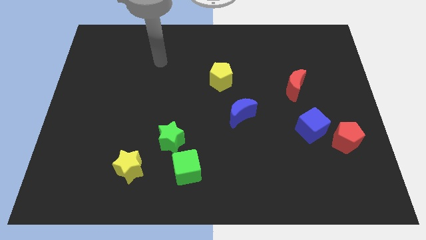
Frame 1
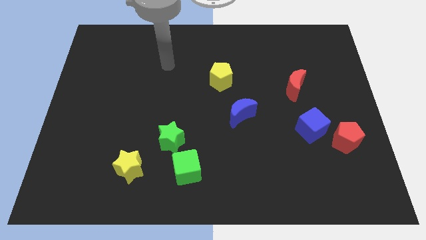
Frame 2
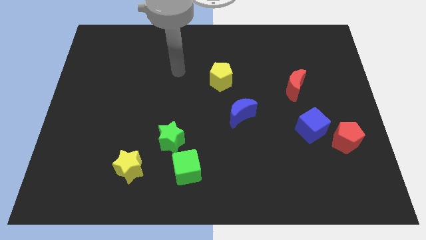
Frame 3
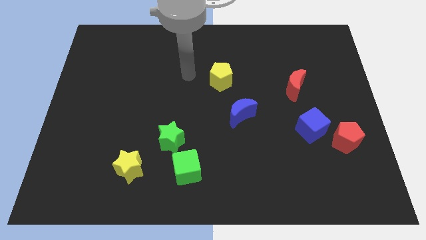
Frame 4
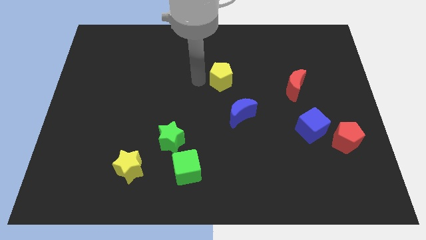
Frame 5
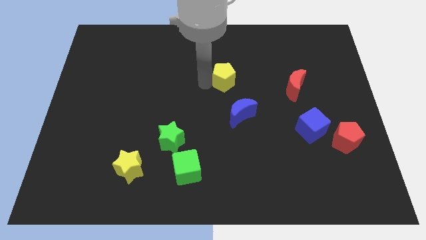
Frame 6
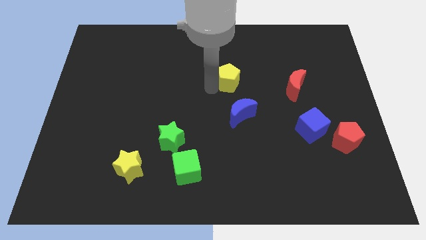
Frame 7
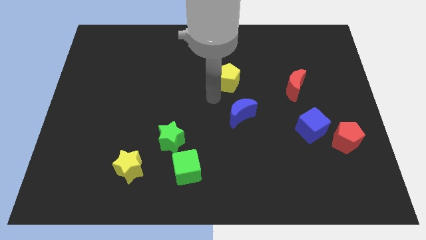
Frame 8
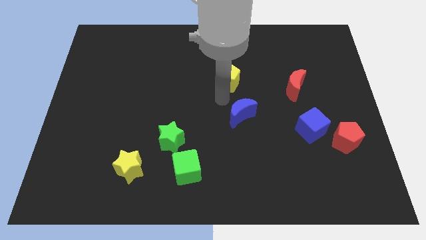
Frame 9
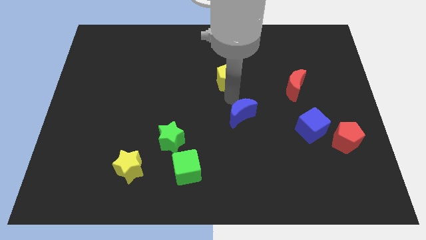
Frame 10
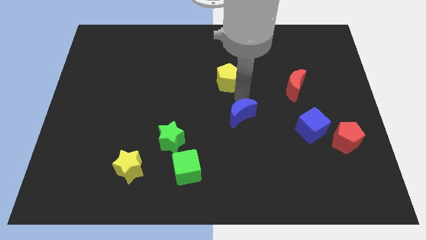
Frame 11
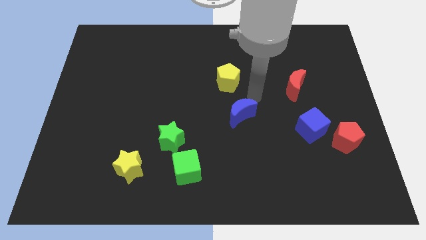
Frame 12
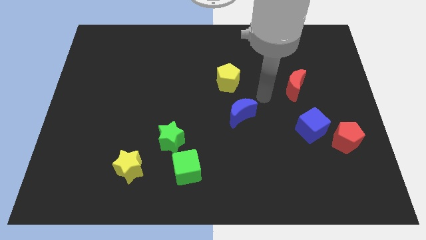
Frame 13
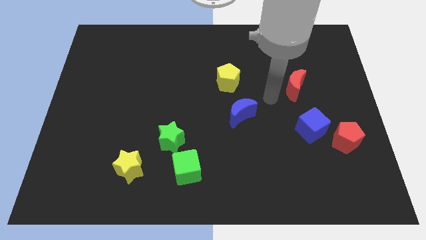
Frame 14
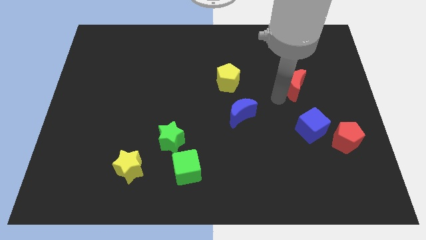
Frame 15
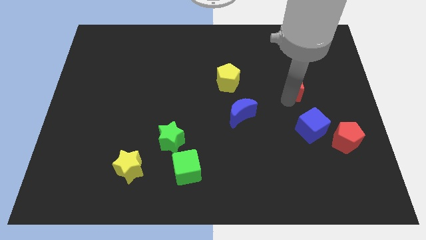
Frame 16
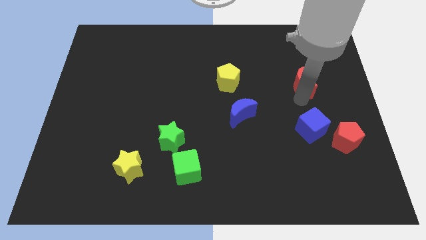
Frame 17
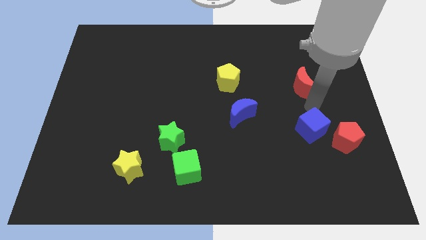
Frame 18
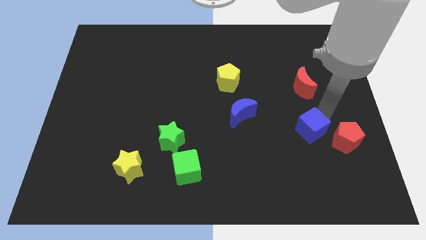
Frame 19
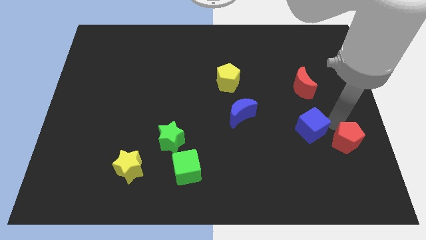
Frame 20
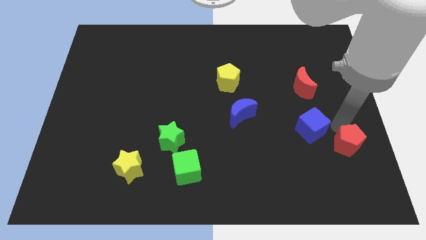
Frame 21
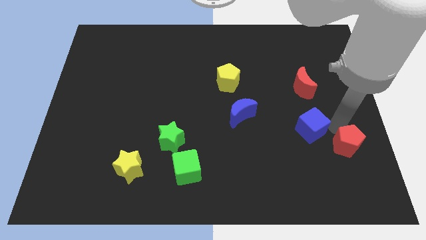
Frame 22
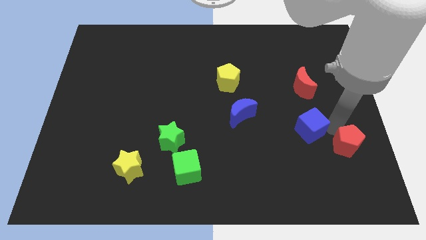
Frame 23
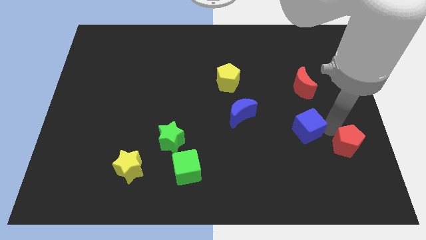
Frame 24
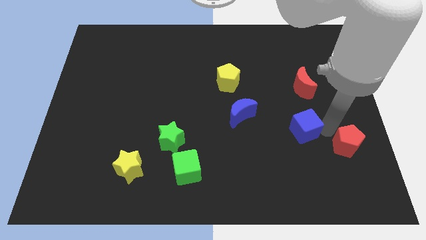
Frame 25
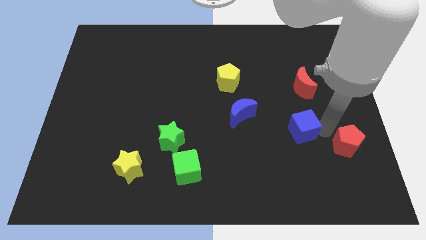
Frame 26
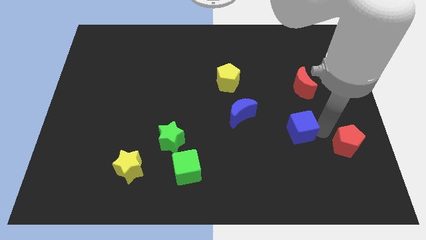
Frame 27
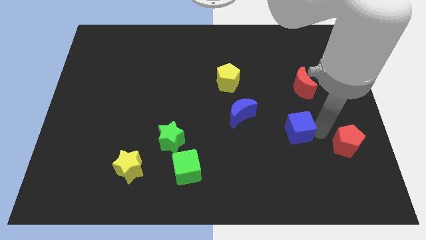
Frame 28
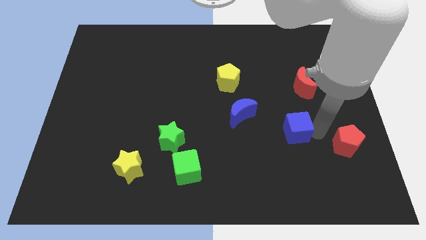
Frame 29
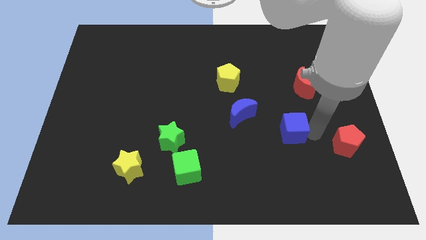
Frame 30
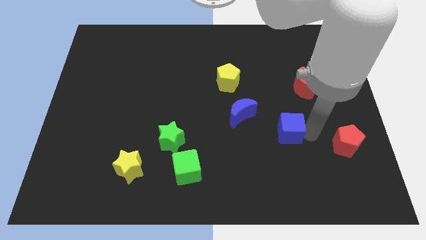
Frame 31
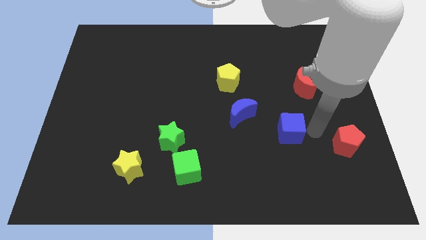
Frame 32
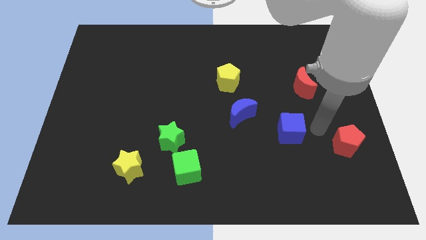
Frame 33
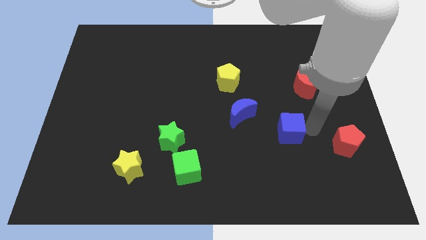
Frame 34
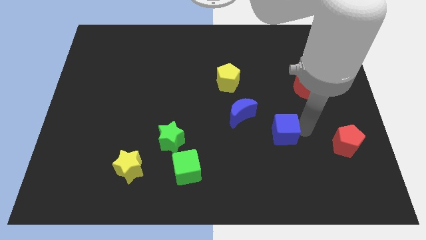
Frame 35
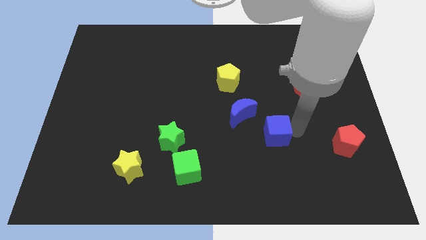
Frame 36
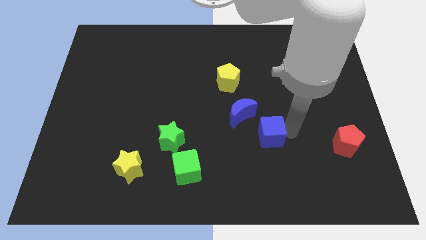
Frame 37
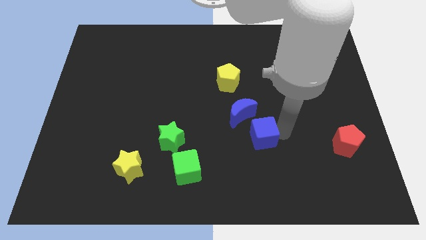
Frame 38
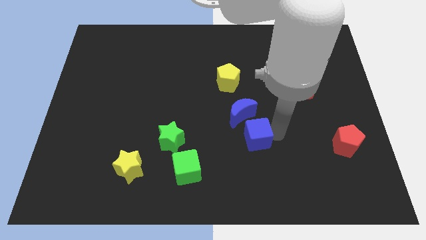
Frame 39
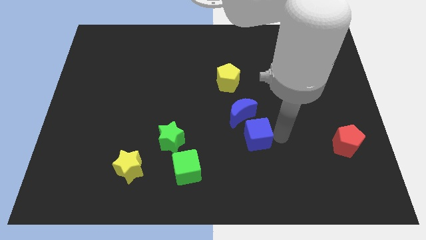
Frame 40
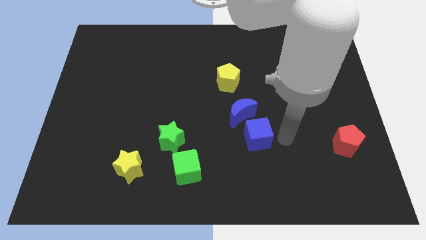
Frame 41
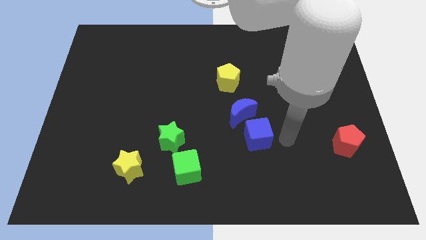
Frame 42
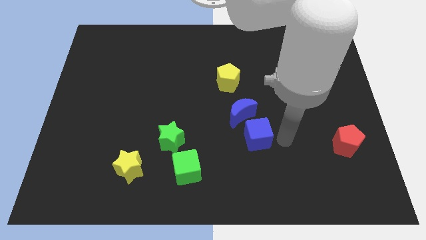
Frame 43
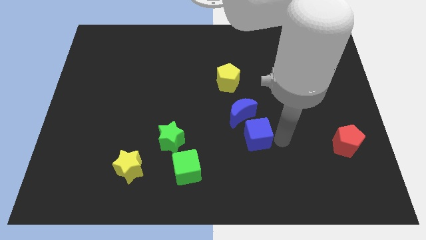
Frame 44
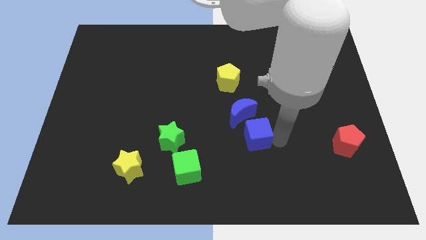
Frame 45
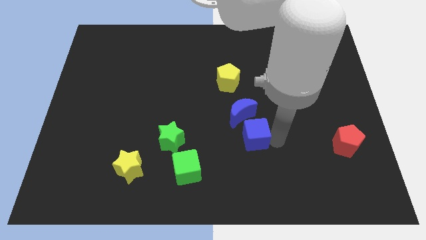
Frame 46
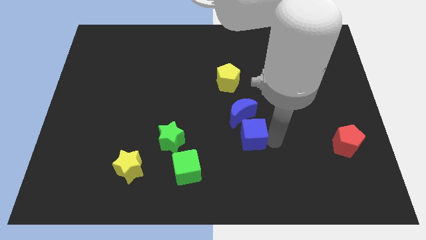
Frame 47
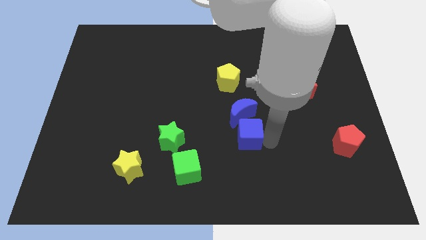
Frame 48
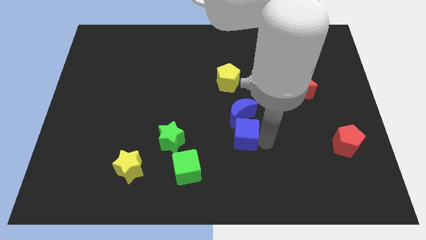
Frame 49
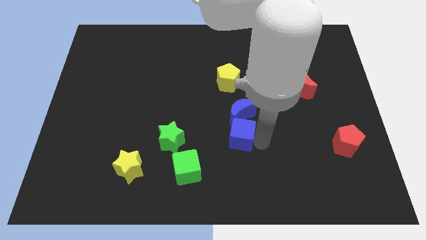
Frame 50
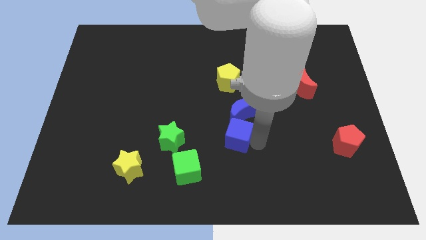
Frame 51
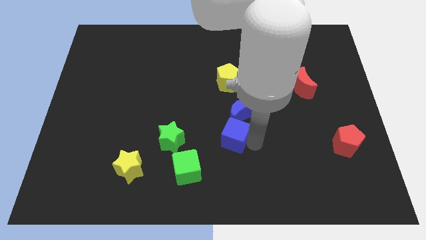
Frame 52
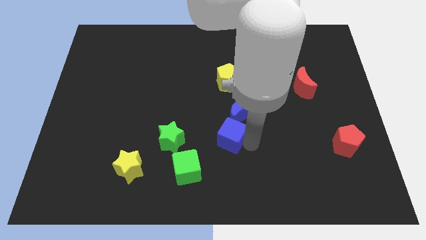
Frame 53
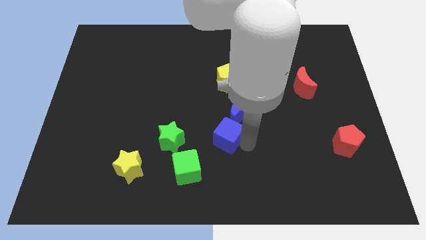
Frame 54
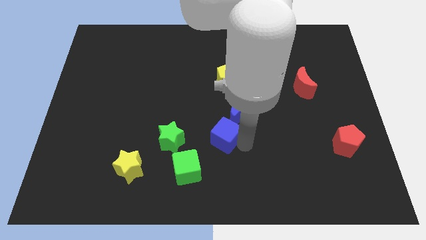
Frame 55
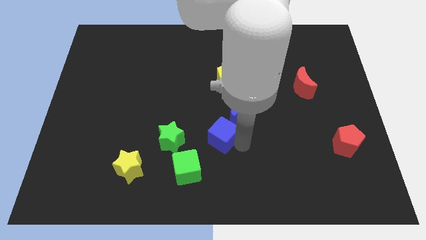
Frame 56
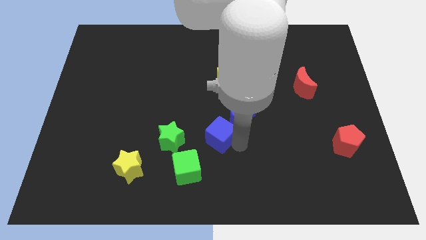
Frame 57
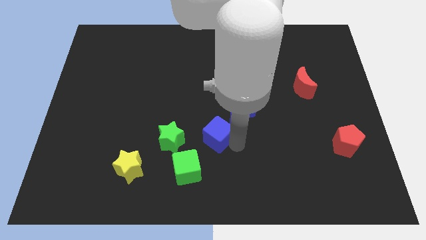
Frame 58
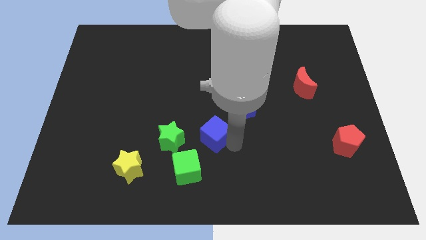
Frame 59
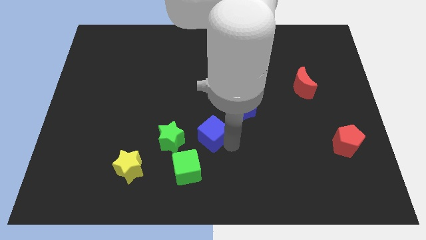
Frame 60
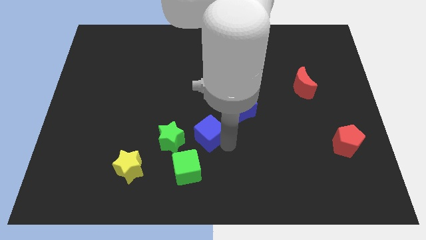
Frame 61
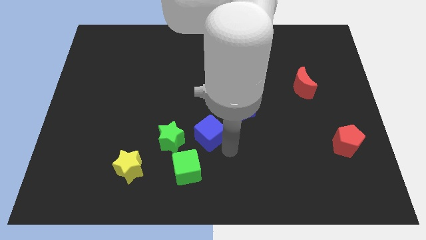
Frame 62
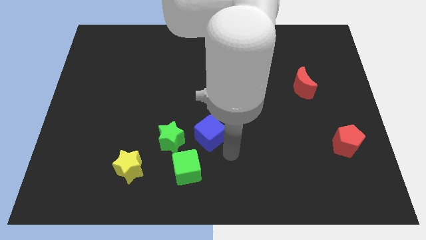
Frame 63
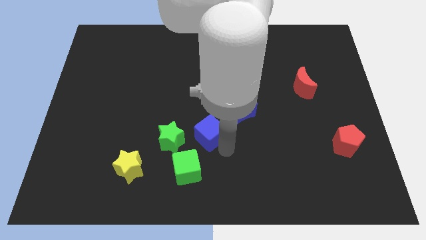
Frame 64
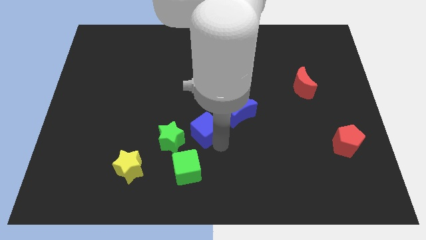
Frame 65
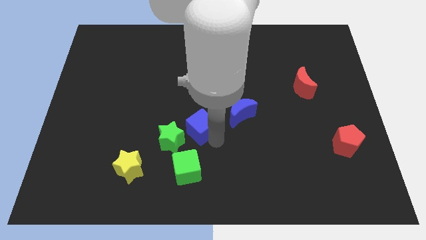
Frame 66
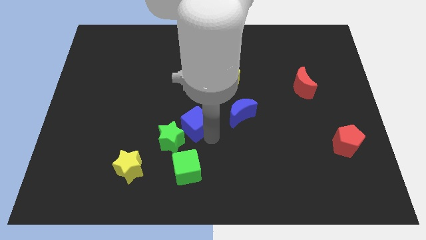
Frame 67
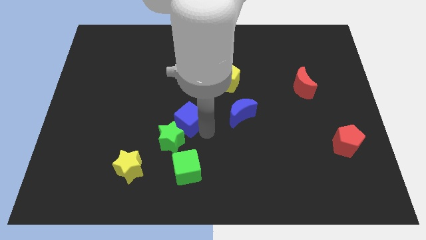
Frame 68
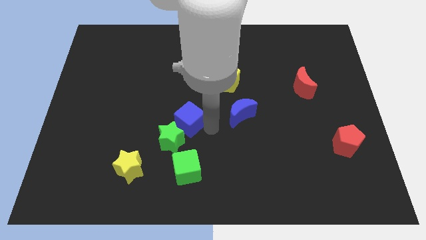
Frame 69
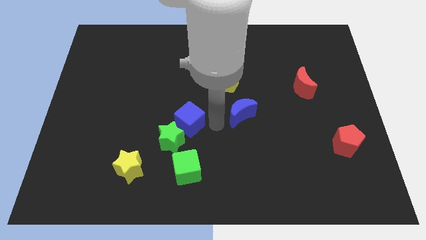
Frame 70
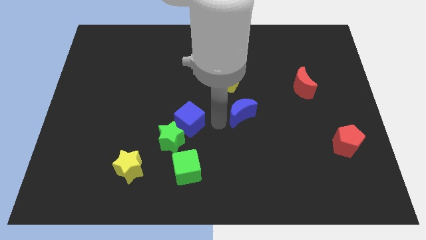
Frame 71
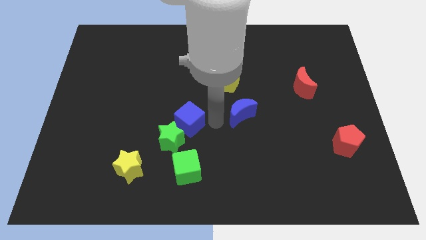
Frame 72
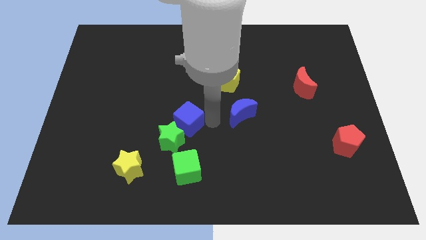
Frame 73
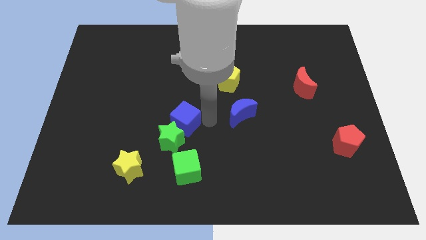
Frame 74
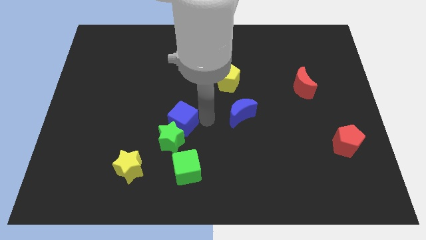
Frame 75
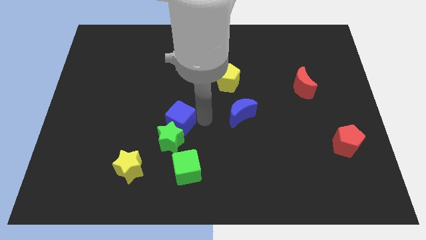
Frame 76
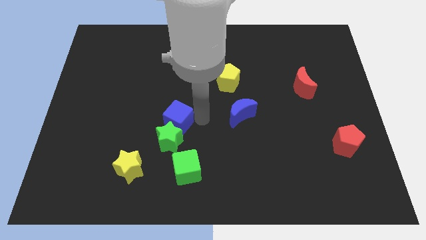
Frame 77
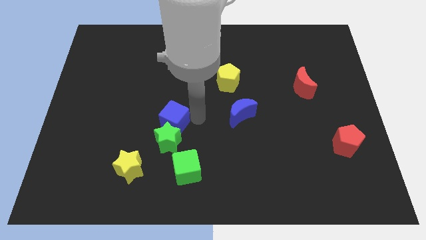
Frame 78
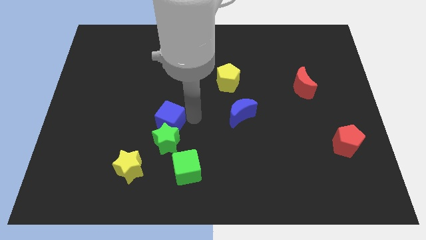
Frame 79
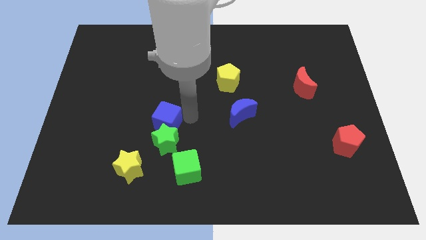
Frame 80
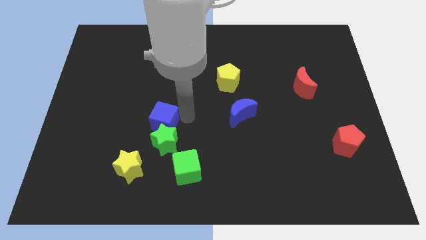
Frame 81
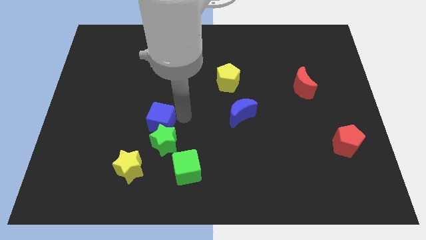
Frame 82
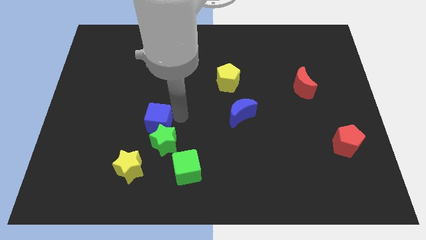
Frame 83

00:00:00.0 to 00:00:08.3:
slide the blue cube to the top of the yellow star
